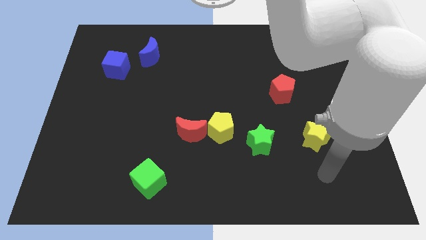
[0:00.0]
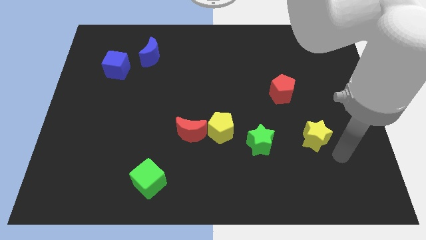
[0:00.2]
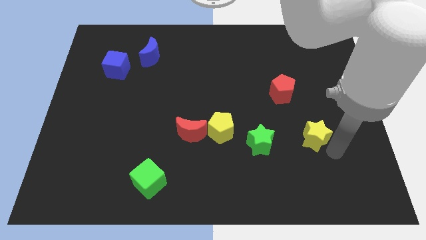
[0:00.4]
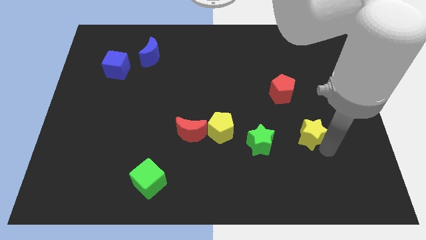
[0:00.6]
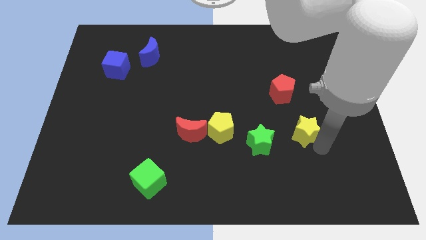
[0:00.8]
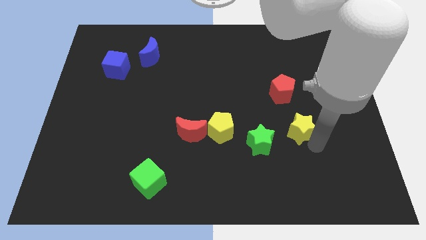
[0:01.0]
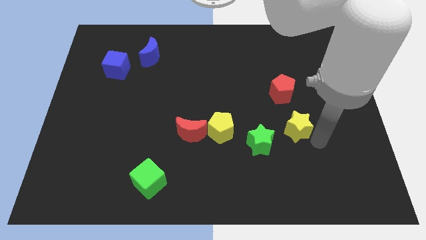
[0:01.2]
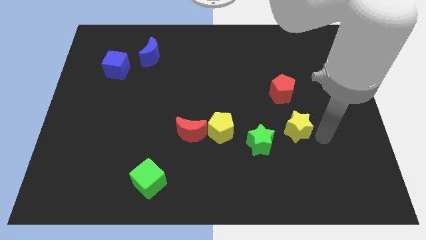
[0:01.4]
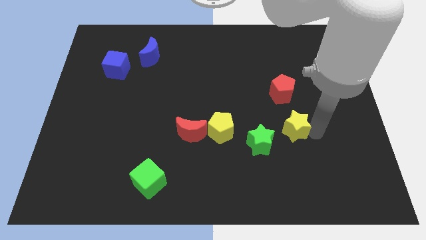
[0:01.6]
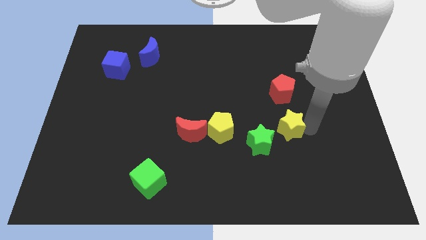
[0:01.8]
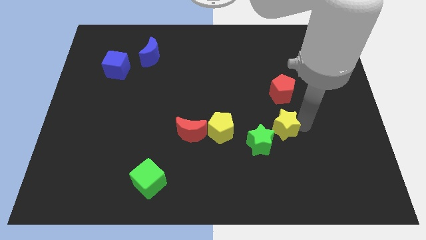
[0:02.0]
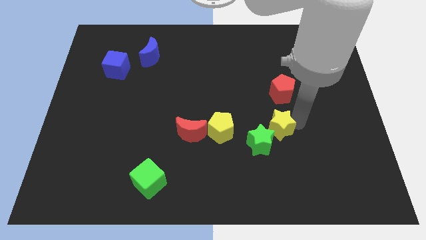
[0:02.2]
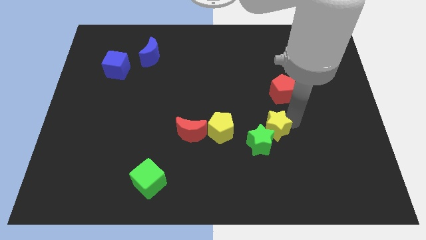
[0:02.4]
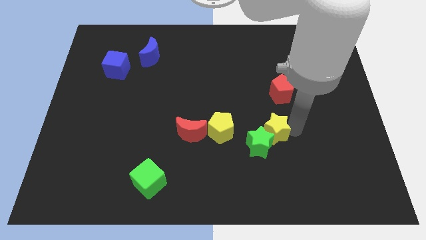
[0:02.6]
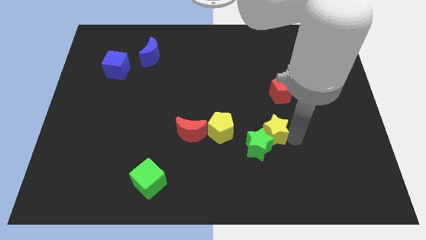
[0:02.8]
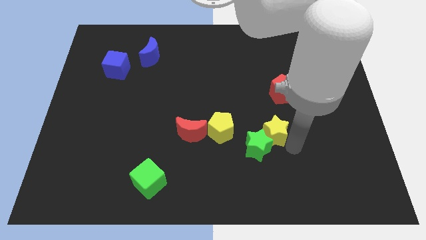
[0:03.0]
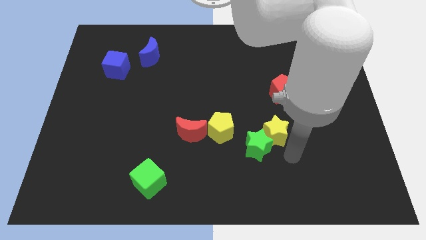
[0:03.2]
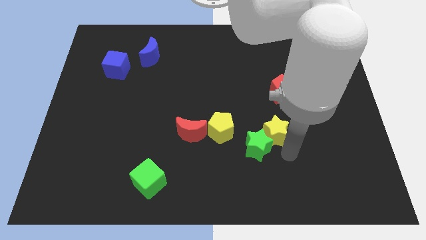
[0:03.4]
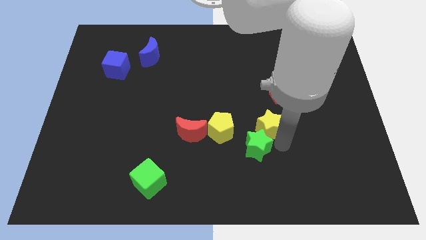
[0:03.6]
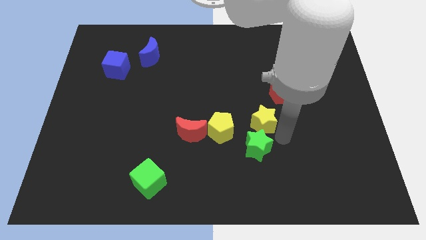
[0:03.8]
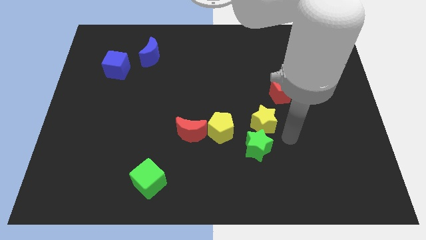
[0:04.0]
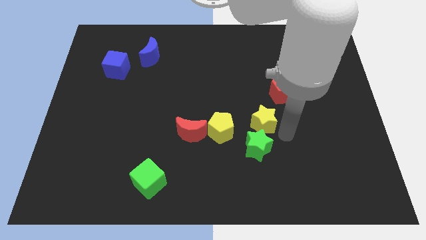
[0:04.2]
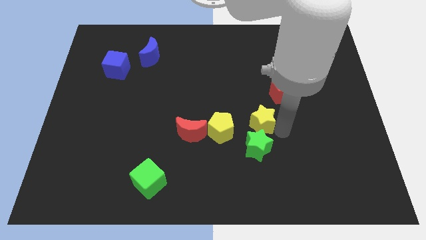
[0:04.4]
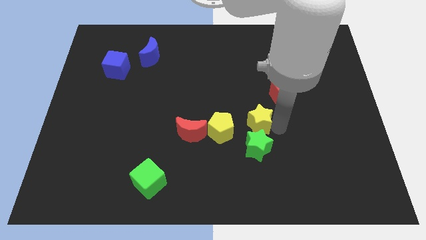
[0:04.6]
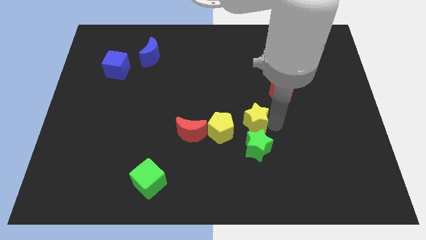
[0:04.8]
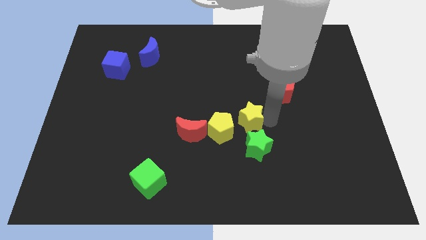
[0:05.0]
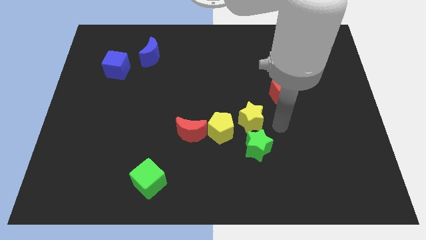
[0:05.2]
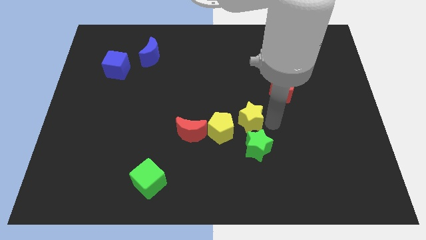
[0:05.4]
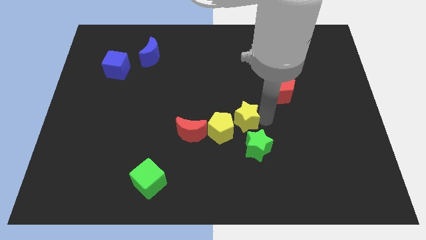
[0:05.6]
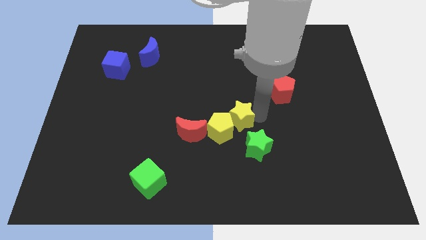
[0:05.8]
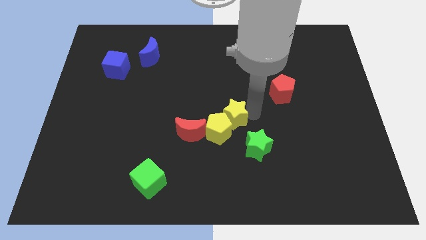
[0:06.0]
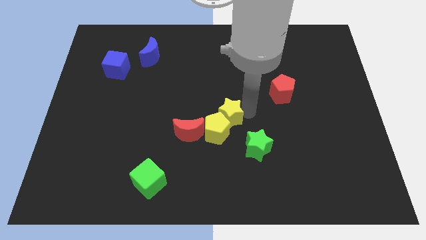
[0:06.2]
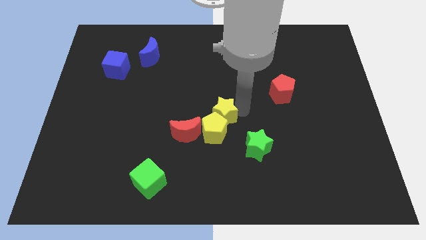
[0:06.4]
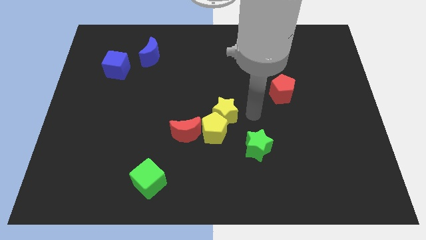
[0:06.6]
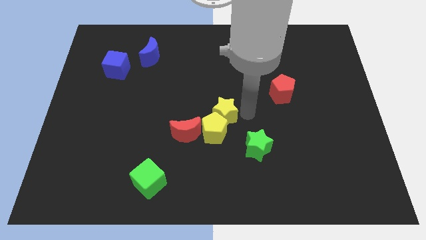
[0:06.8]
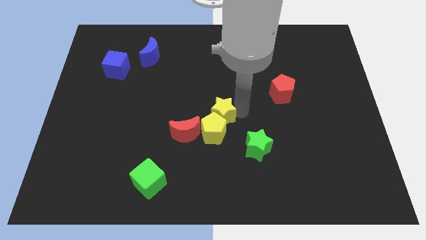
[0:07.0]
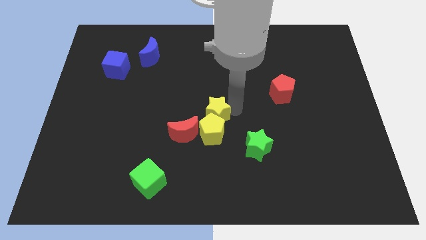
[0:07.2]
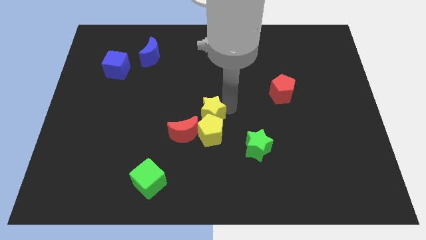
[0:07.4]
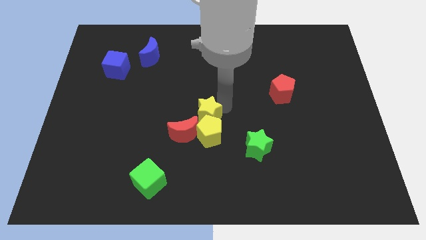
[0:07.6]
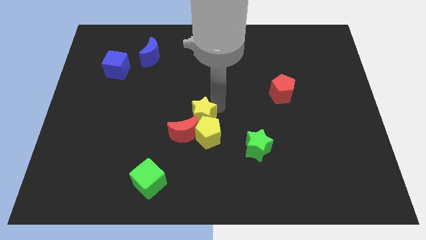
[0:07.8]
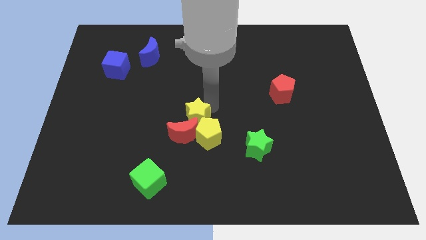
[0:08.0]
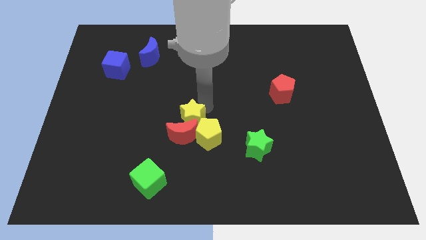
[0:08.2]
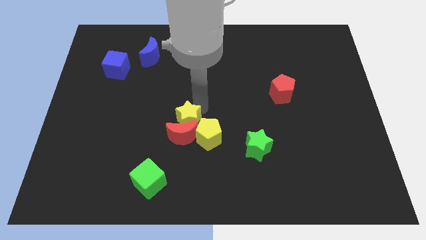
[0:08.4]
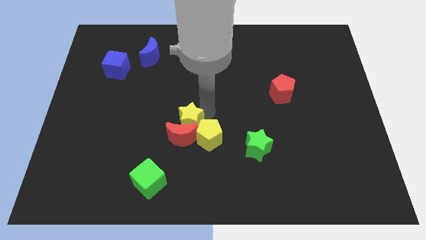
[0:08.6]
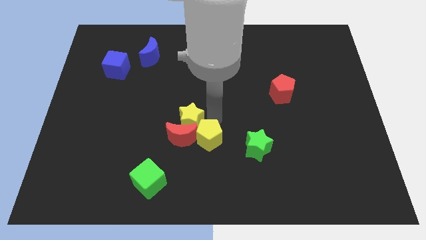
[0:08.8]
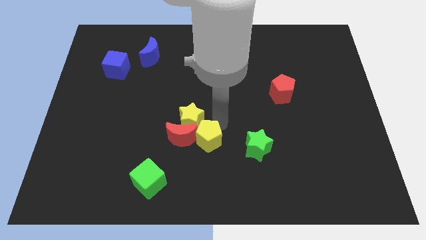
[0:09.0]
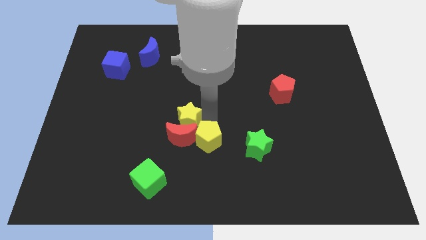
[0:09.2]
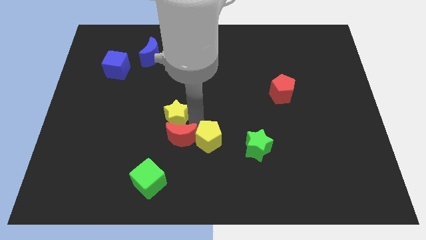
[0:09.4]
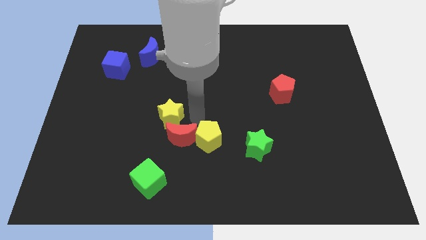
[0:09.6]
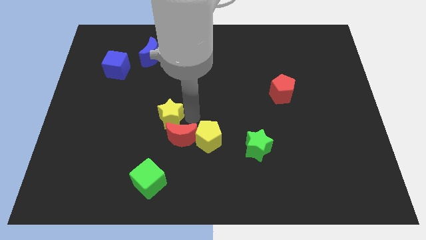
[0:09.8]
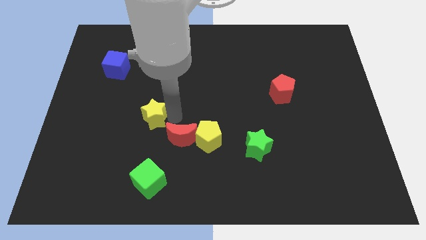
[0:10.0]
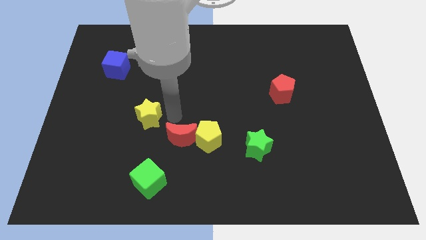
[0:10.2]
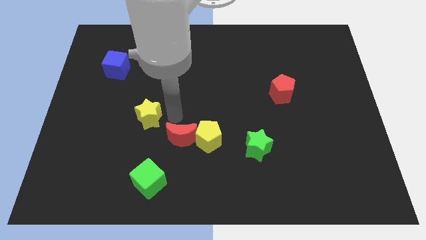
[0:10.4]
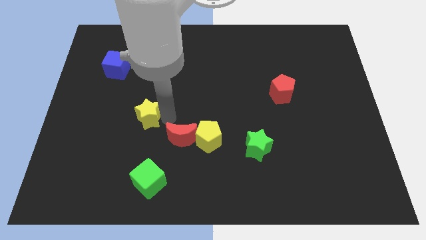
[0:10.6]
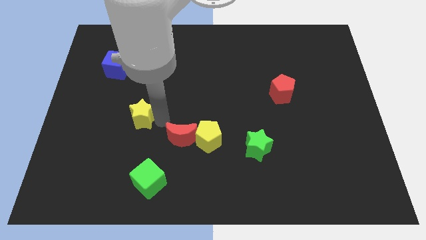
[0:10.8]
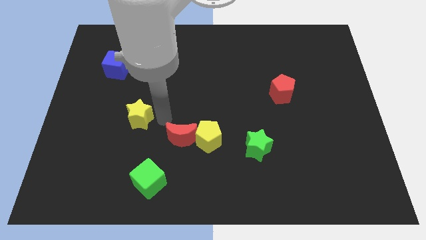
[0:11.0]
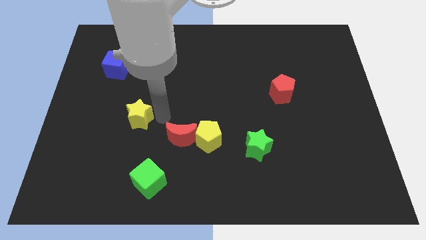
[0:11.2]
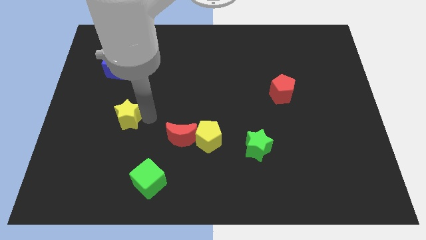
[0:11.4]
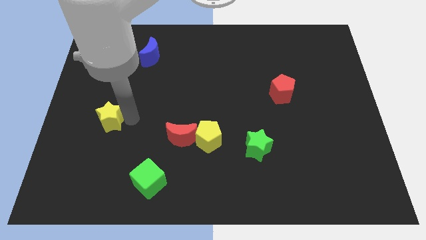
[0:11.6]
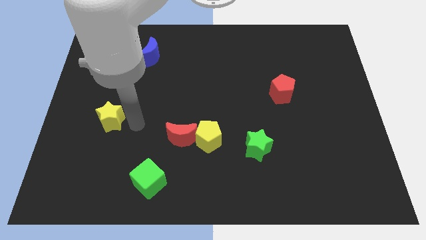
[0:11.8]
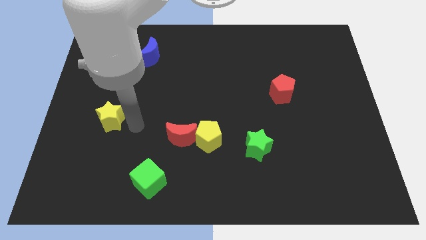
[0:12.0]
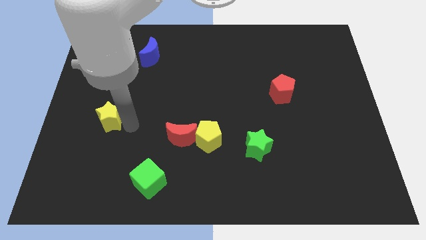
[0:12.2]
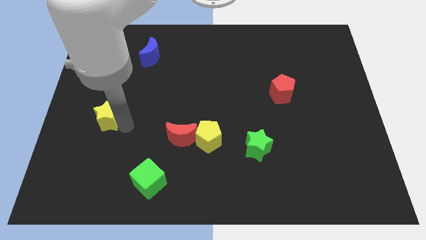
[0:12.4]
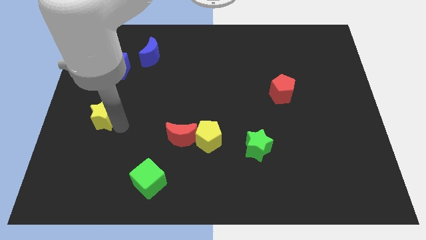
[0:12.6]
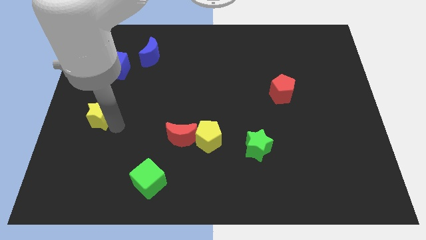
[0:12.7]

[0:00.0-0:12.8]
move the yellow star to the center left

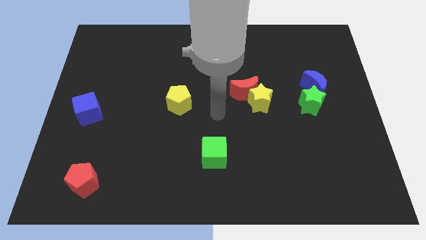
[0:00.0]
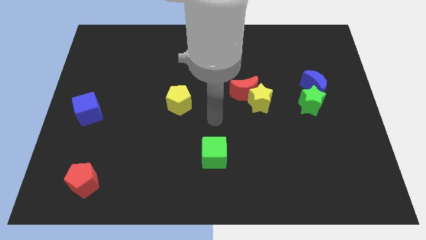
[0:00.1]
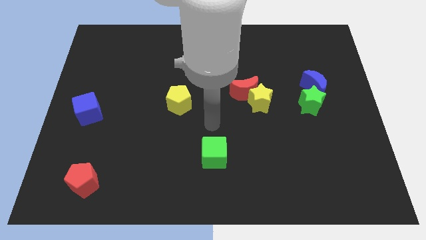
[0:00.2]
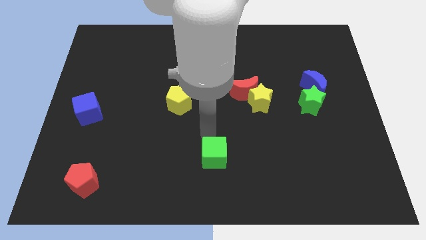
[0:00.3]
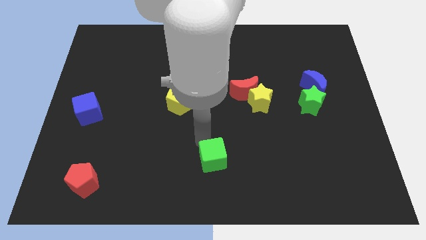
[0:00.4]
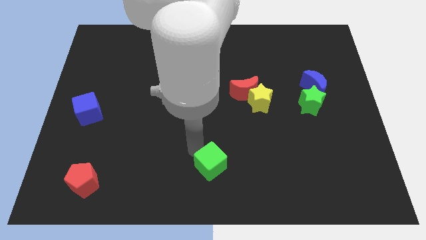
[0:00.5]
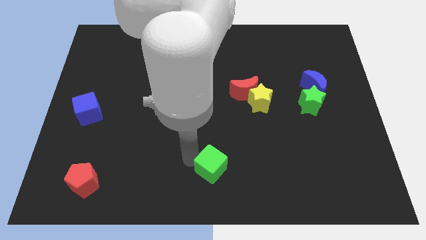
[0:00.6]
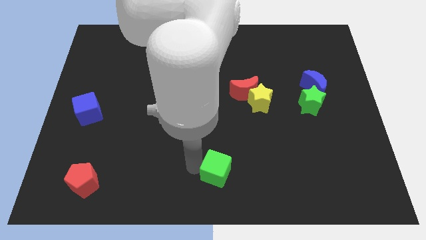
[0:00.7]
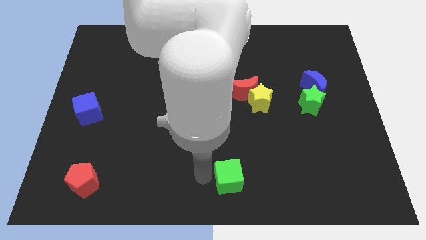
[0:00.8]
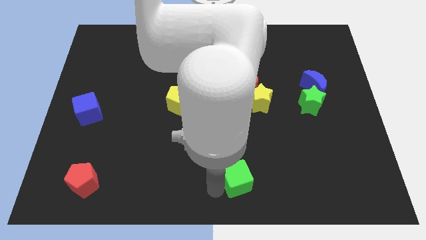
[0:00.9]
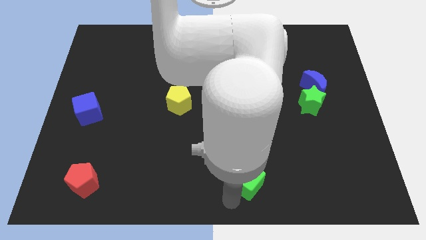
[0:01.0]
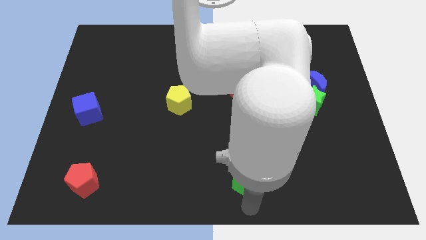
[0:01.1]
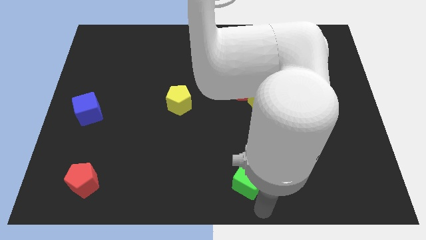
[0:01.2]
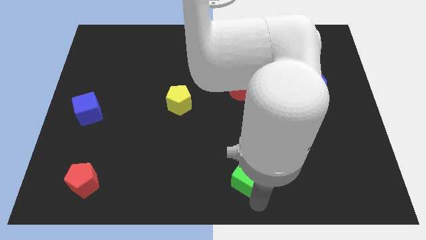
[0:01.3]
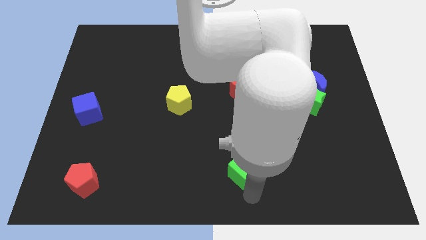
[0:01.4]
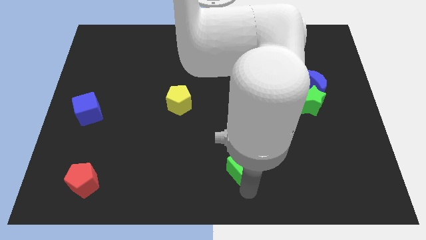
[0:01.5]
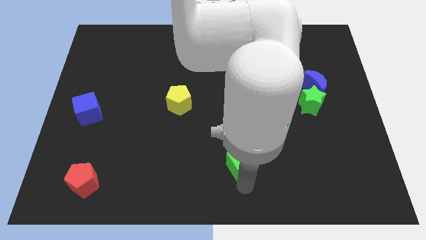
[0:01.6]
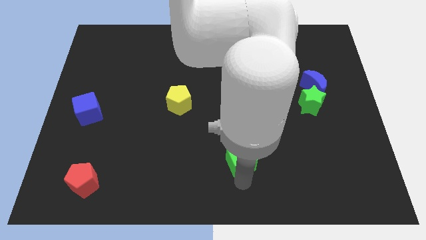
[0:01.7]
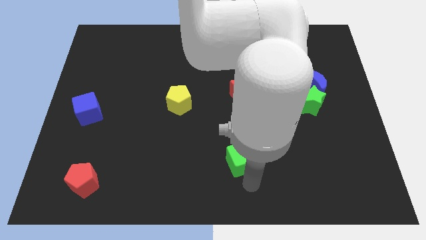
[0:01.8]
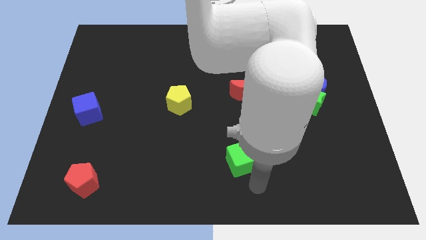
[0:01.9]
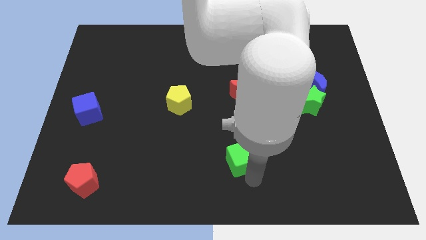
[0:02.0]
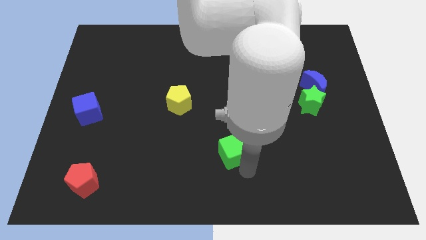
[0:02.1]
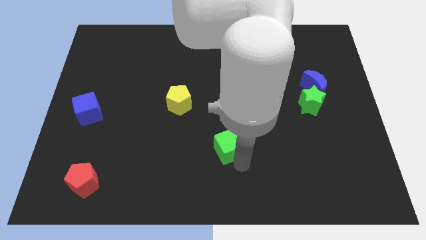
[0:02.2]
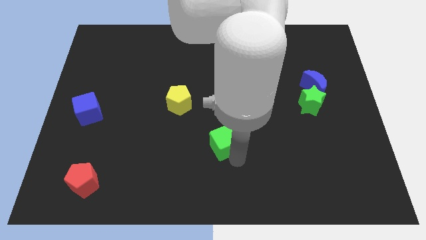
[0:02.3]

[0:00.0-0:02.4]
slide the green cube to the middle of the board
